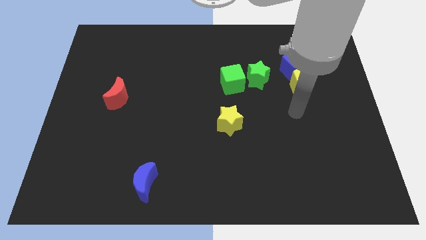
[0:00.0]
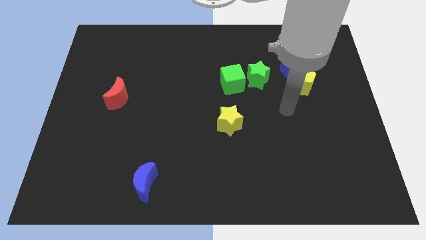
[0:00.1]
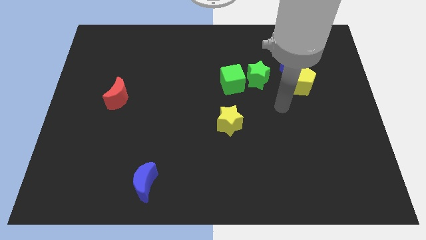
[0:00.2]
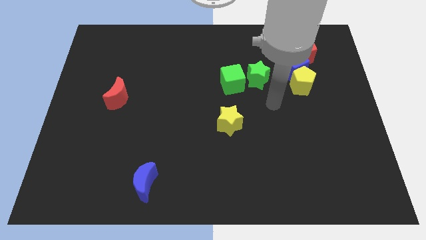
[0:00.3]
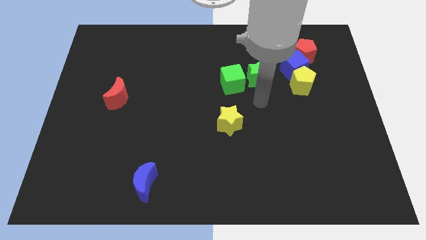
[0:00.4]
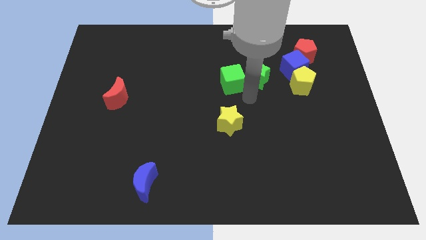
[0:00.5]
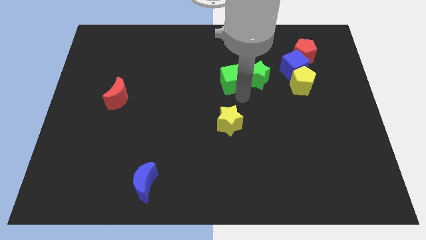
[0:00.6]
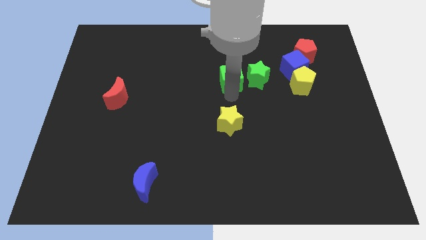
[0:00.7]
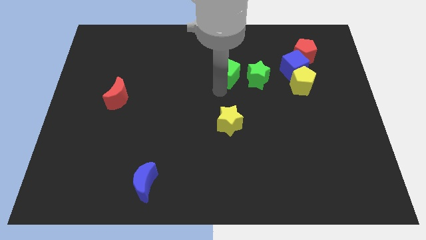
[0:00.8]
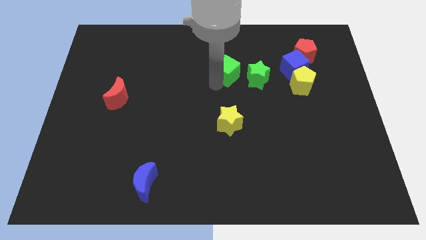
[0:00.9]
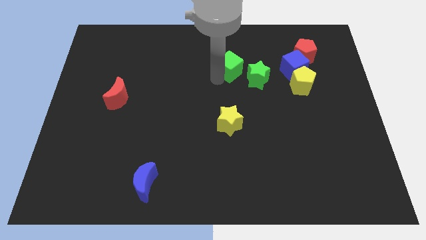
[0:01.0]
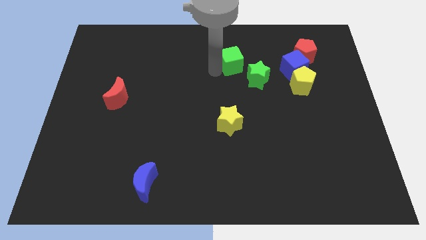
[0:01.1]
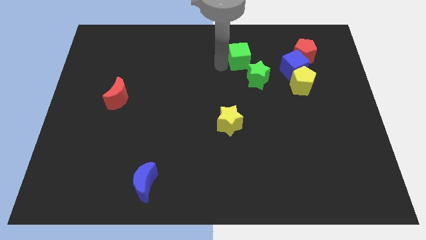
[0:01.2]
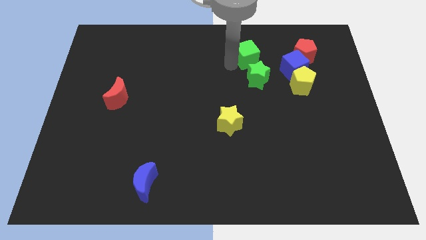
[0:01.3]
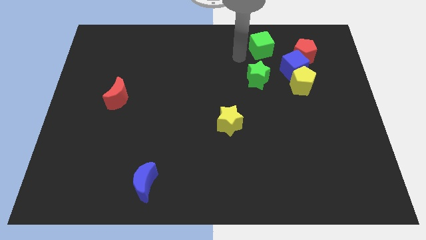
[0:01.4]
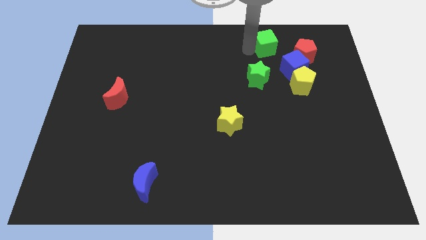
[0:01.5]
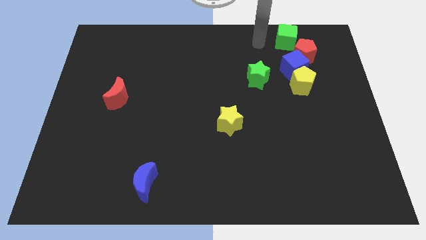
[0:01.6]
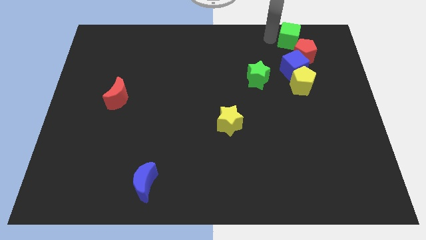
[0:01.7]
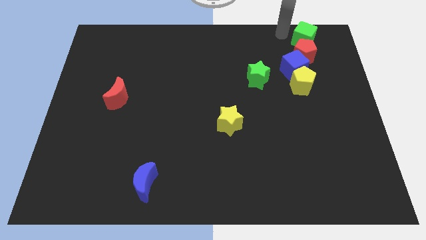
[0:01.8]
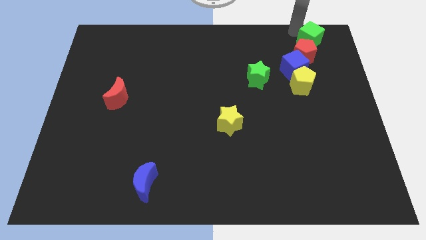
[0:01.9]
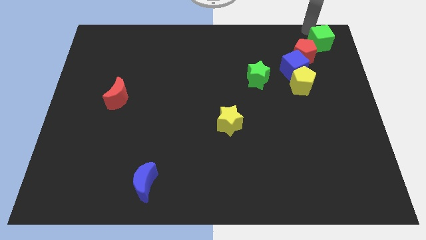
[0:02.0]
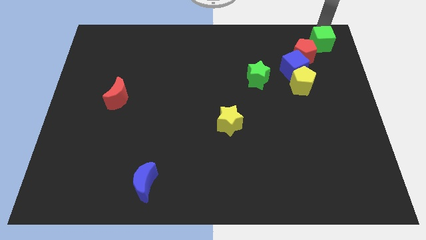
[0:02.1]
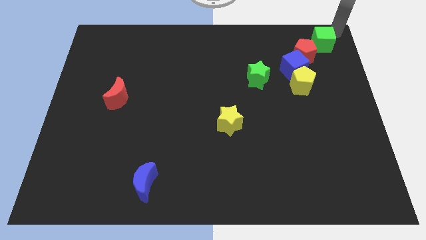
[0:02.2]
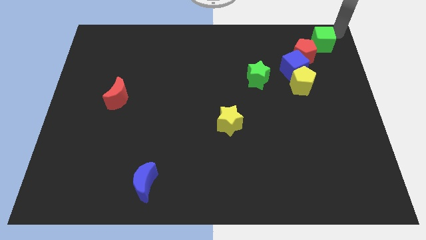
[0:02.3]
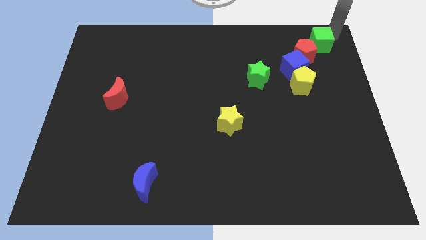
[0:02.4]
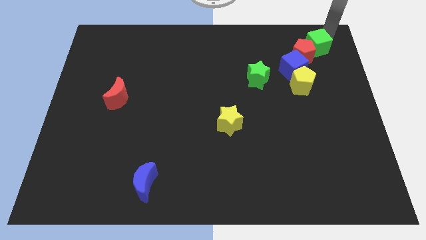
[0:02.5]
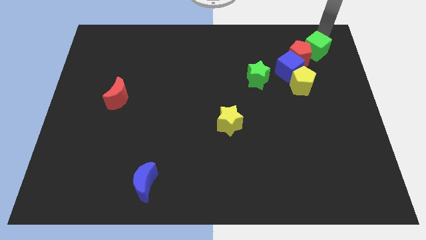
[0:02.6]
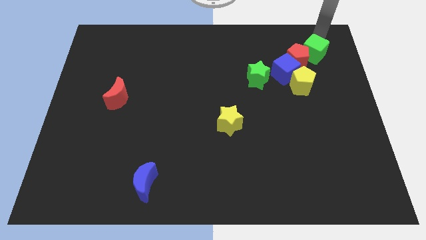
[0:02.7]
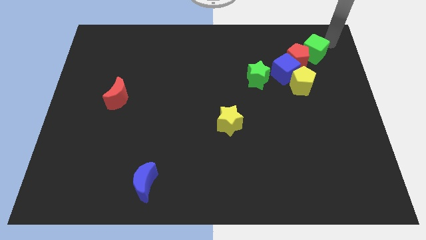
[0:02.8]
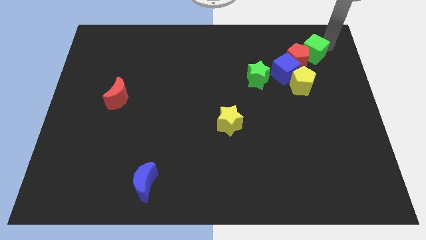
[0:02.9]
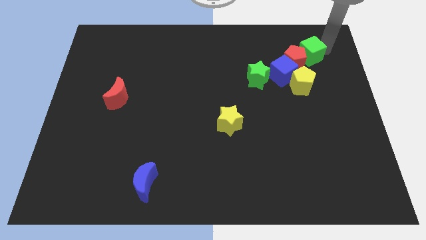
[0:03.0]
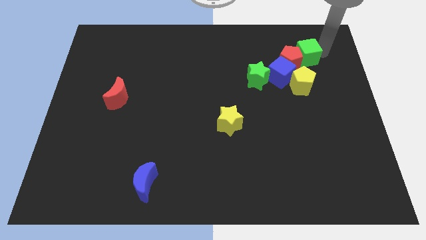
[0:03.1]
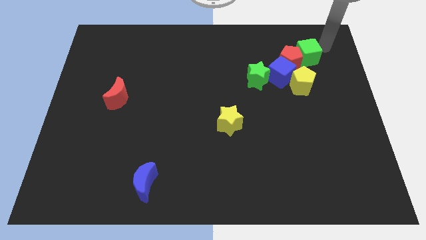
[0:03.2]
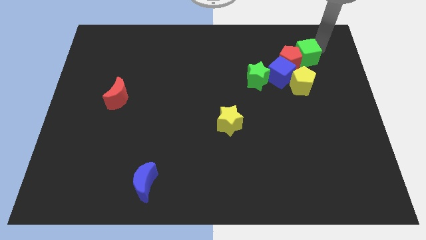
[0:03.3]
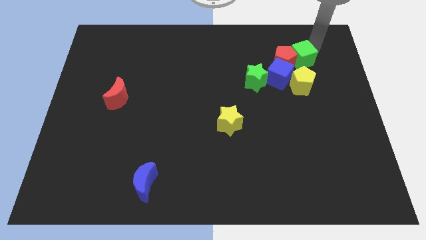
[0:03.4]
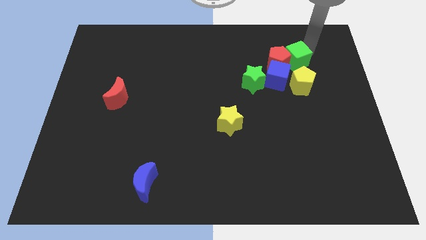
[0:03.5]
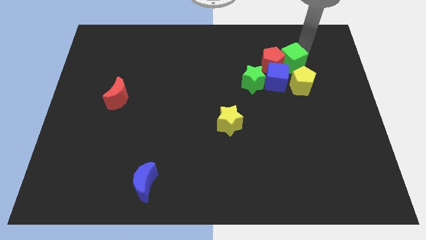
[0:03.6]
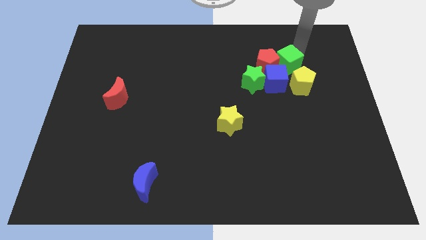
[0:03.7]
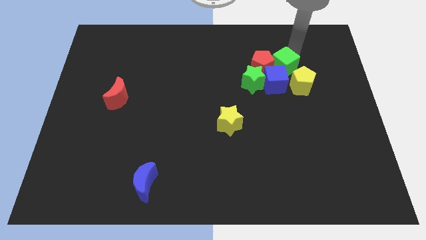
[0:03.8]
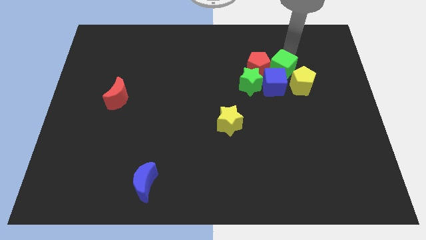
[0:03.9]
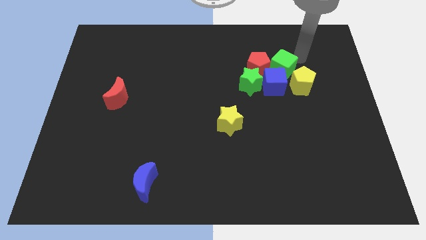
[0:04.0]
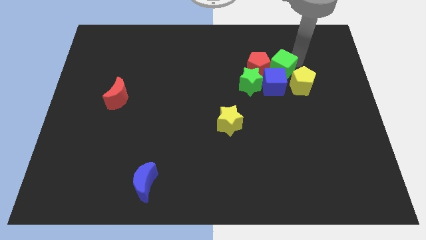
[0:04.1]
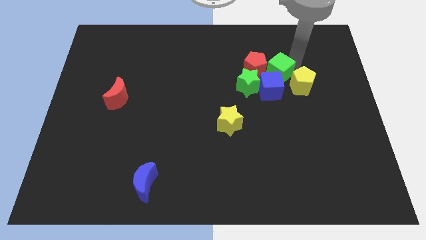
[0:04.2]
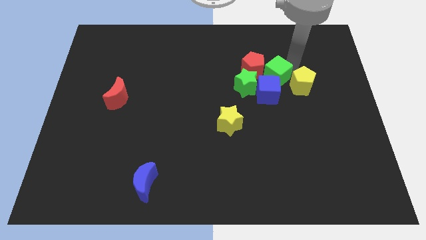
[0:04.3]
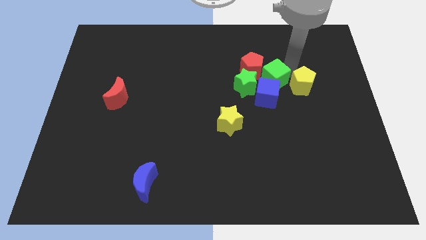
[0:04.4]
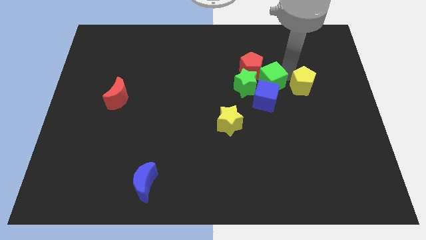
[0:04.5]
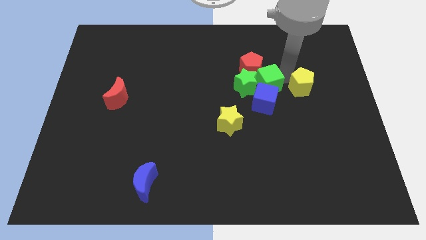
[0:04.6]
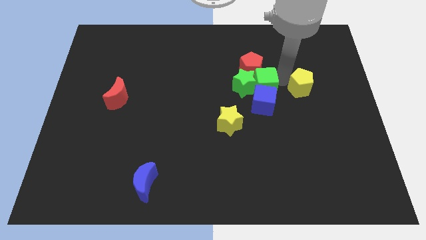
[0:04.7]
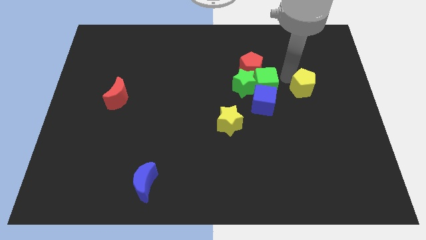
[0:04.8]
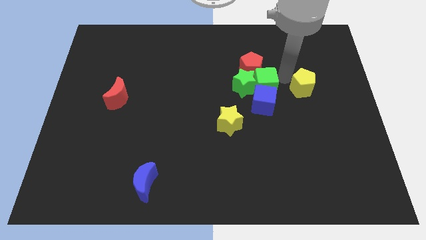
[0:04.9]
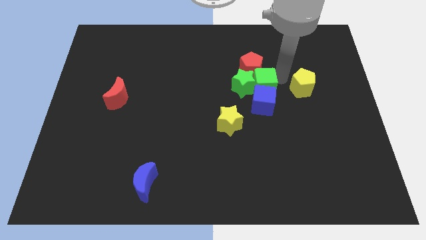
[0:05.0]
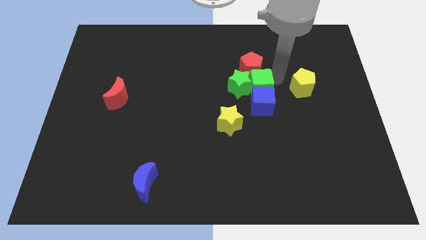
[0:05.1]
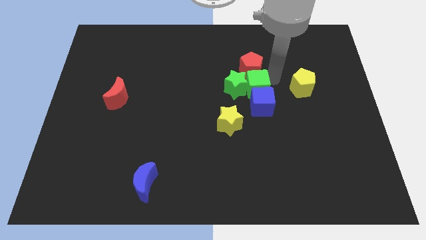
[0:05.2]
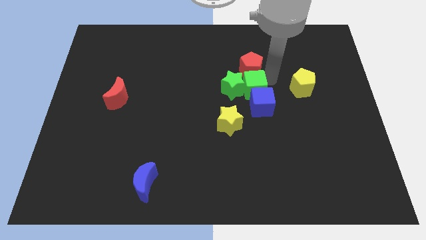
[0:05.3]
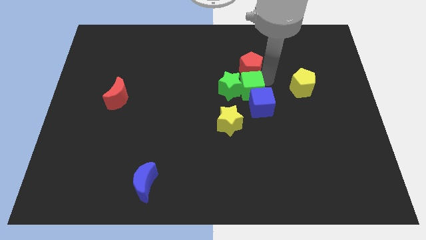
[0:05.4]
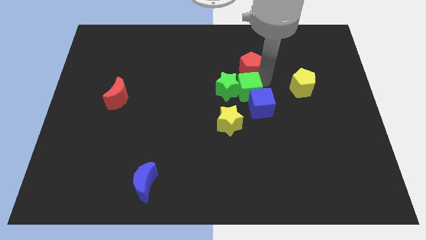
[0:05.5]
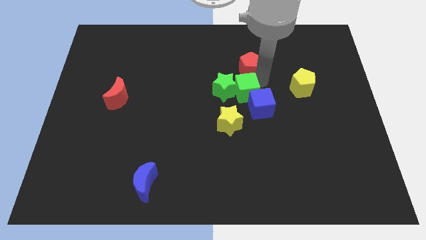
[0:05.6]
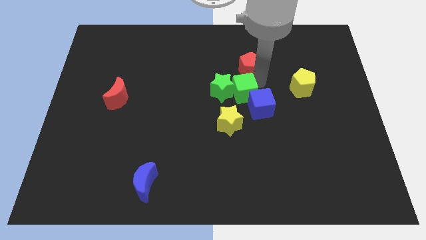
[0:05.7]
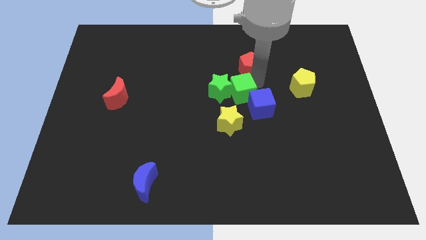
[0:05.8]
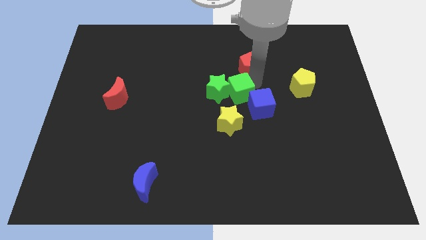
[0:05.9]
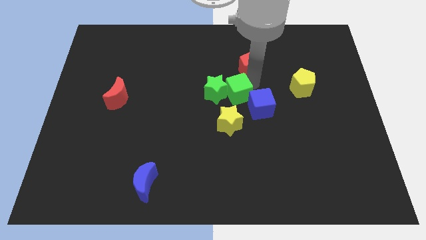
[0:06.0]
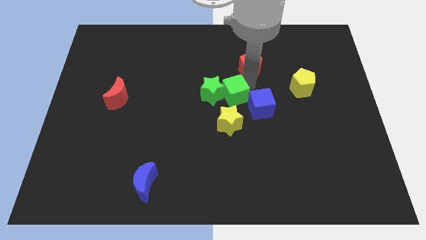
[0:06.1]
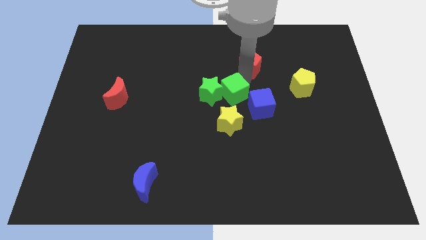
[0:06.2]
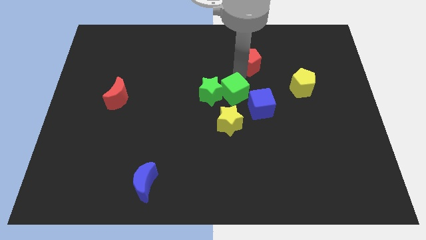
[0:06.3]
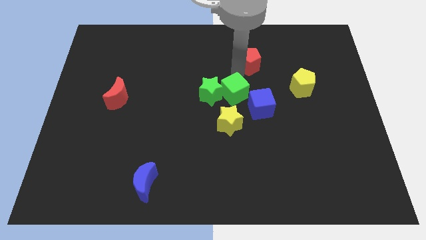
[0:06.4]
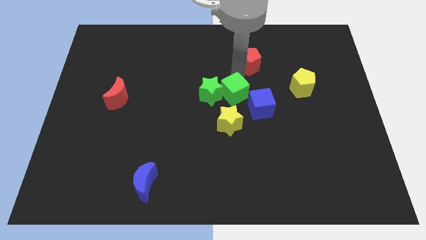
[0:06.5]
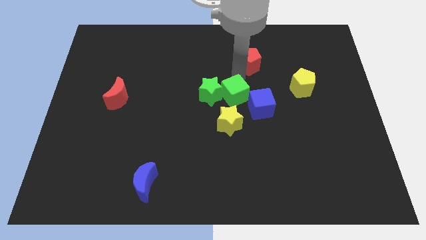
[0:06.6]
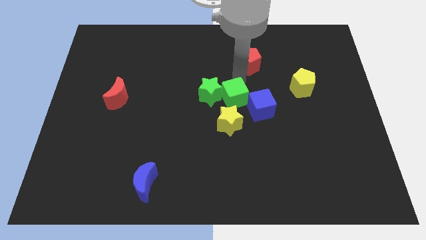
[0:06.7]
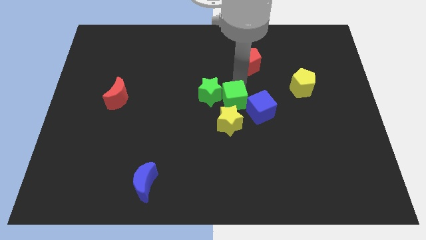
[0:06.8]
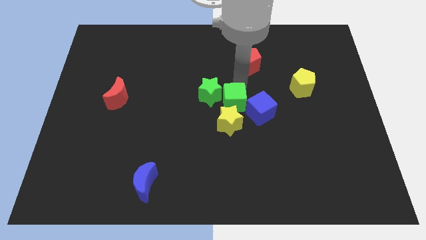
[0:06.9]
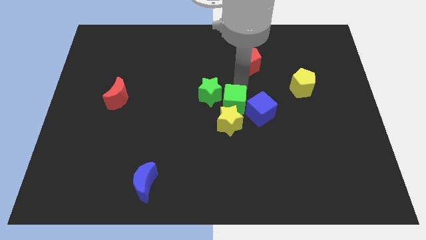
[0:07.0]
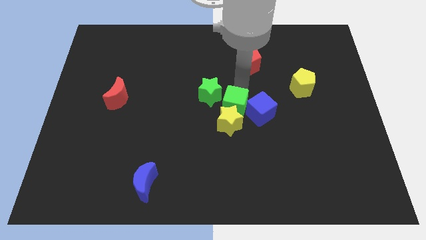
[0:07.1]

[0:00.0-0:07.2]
push the green cube next to the yellow star
